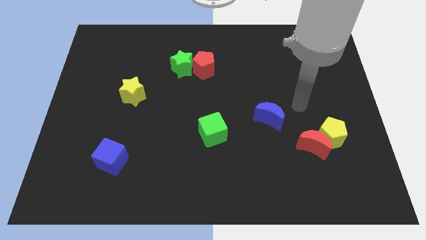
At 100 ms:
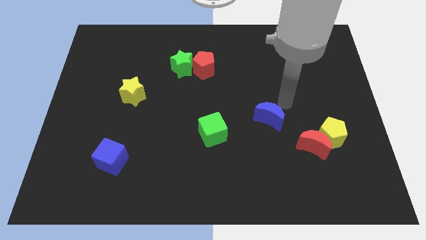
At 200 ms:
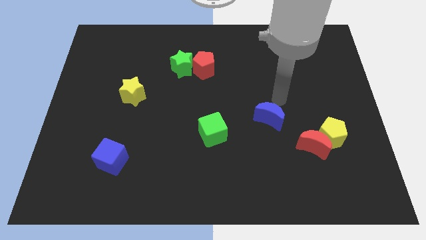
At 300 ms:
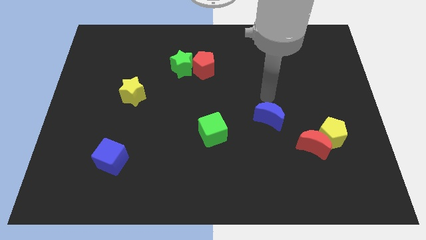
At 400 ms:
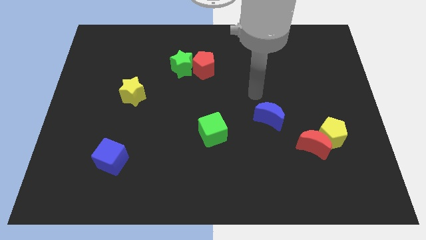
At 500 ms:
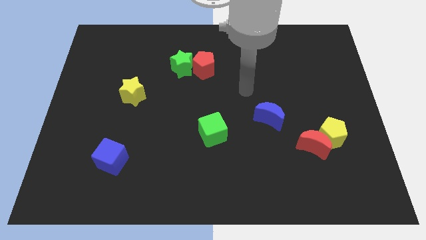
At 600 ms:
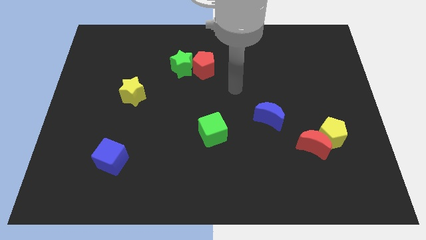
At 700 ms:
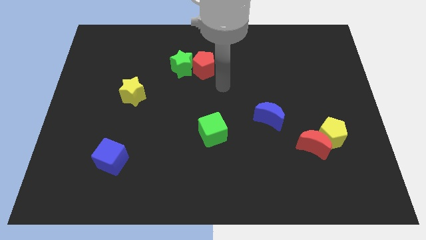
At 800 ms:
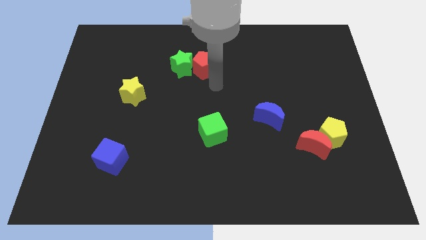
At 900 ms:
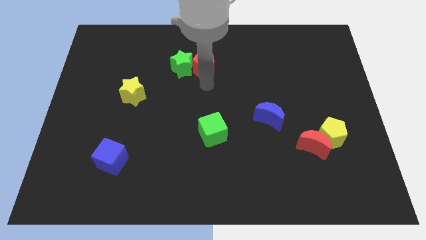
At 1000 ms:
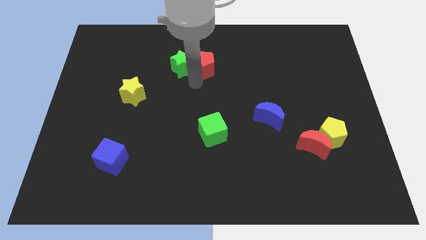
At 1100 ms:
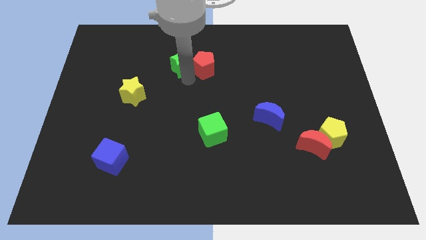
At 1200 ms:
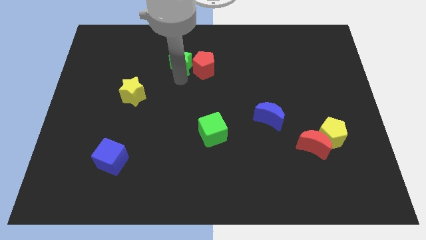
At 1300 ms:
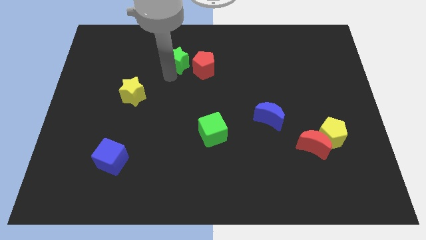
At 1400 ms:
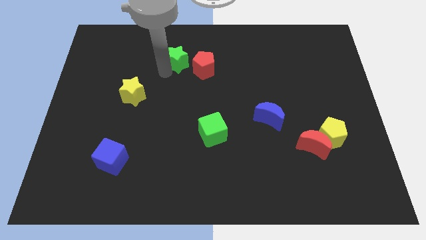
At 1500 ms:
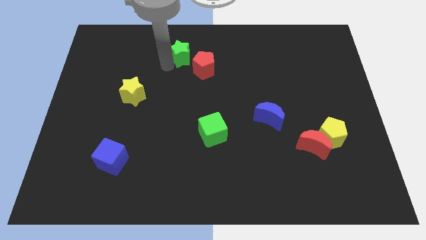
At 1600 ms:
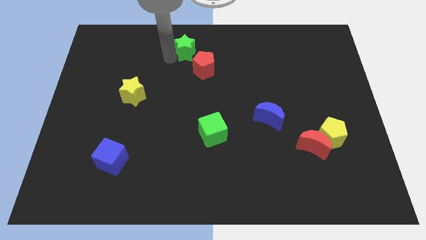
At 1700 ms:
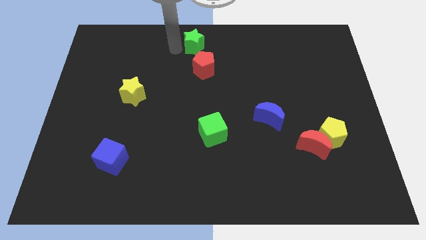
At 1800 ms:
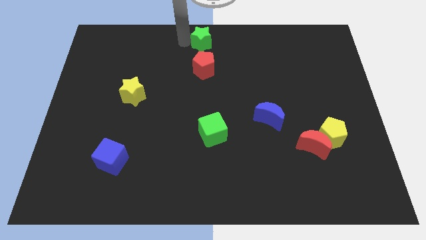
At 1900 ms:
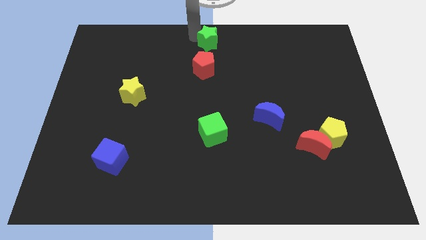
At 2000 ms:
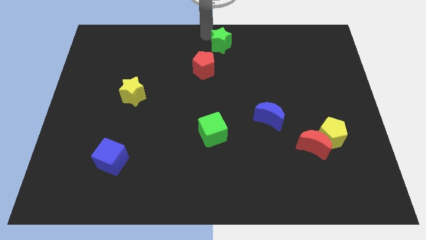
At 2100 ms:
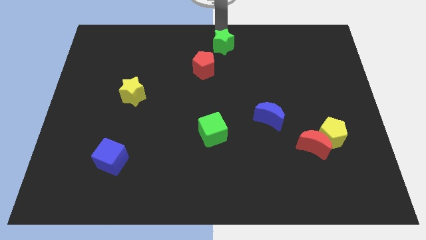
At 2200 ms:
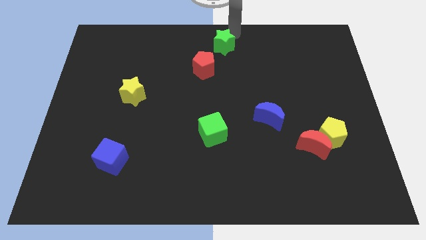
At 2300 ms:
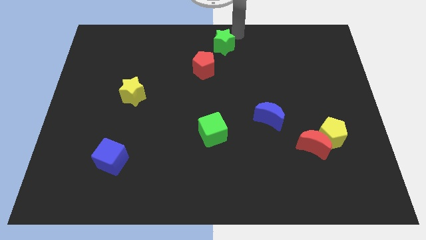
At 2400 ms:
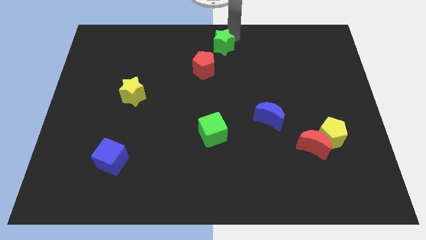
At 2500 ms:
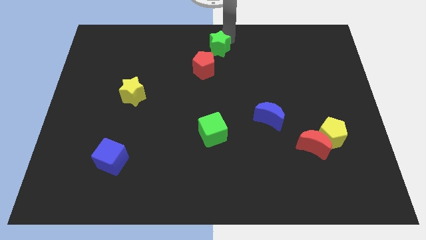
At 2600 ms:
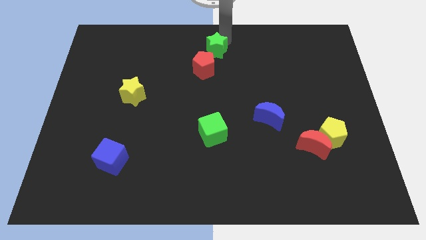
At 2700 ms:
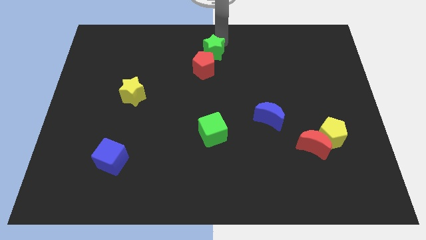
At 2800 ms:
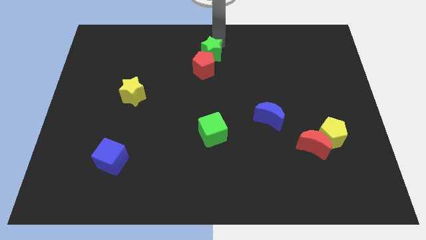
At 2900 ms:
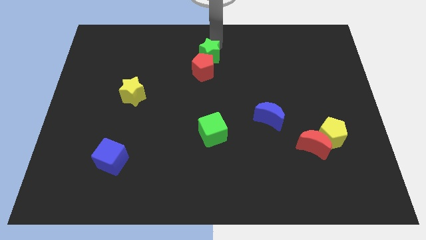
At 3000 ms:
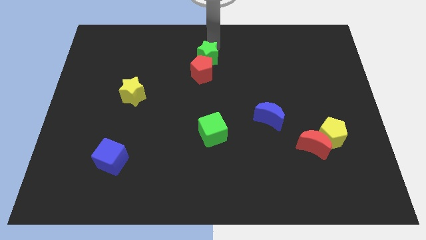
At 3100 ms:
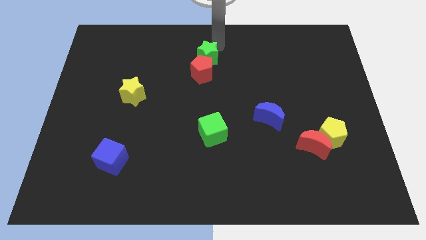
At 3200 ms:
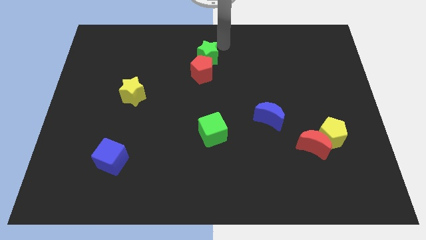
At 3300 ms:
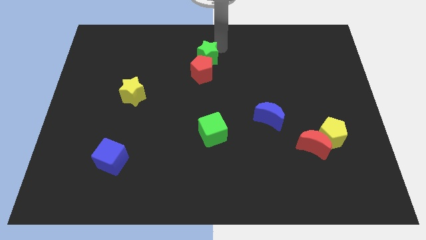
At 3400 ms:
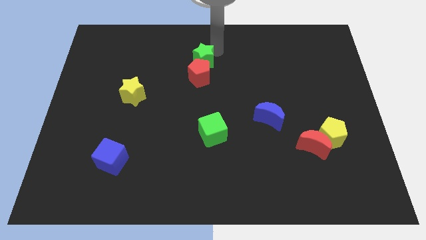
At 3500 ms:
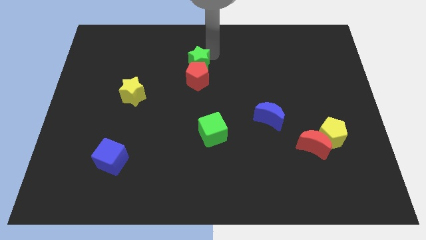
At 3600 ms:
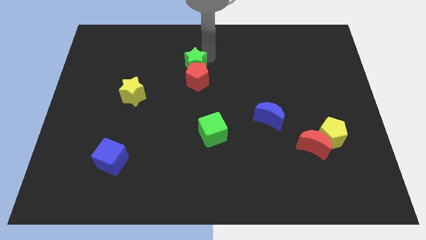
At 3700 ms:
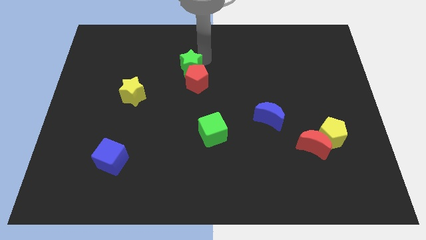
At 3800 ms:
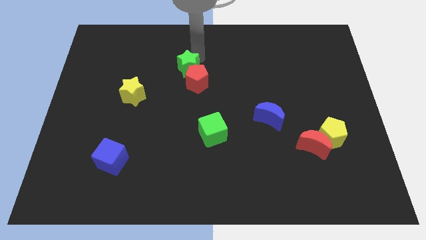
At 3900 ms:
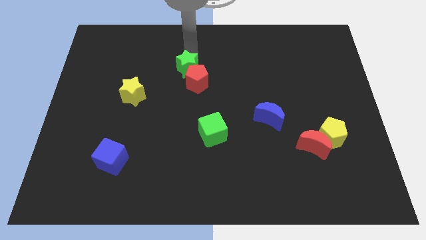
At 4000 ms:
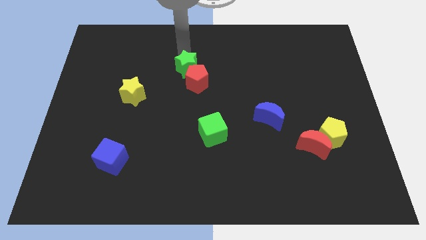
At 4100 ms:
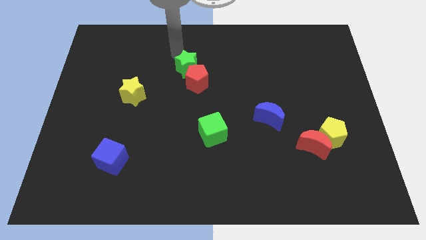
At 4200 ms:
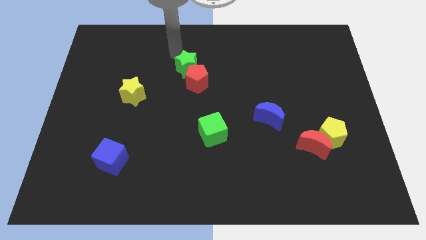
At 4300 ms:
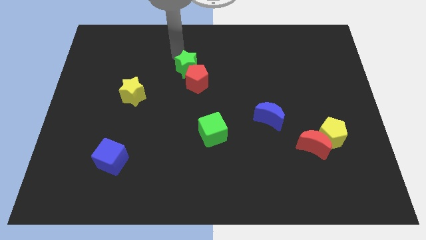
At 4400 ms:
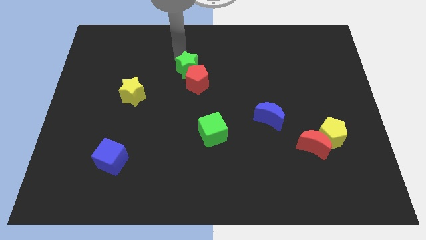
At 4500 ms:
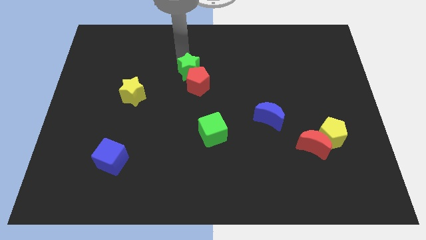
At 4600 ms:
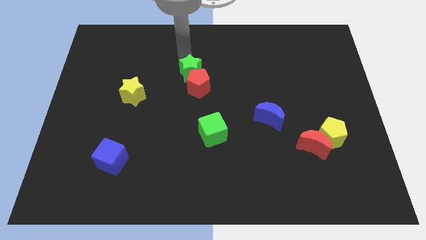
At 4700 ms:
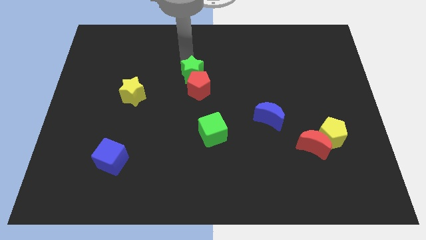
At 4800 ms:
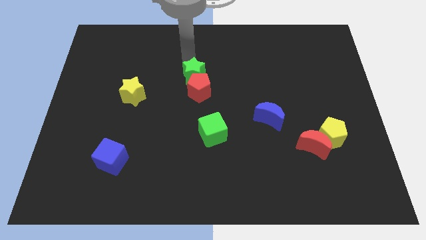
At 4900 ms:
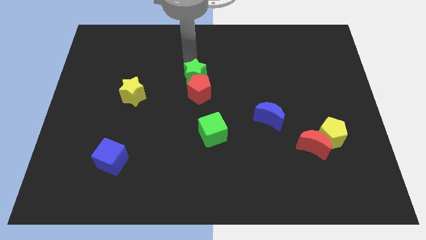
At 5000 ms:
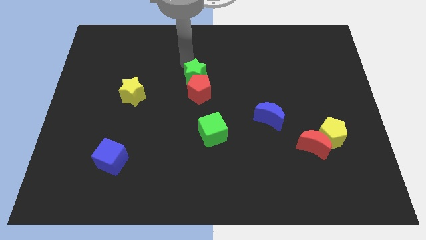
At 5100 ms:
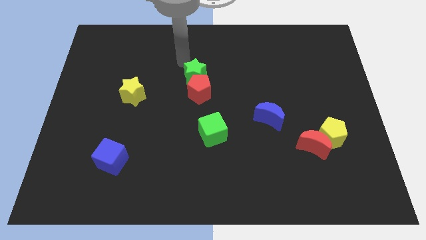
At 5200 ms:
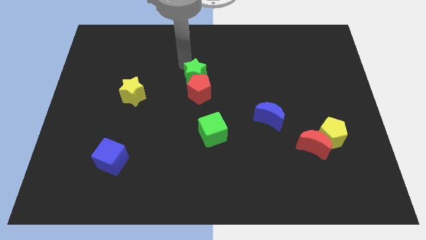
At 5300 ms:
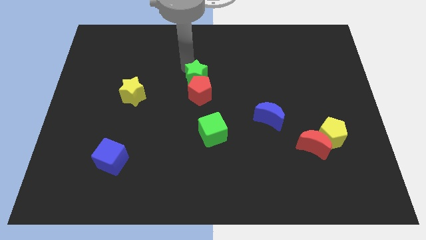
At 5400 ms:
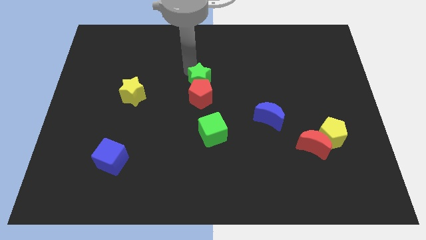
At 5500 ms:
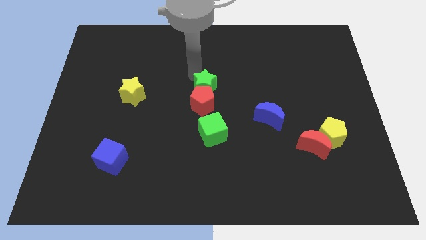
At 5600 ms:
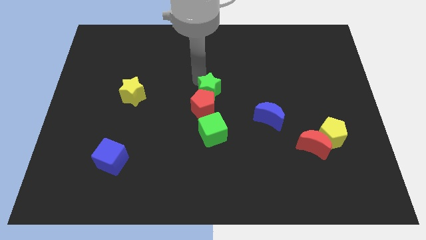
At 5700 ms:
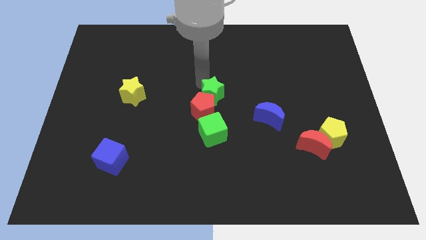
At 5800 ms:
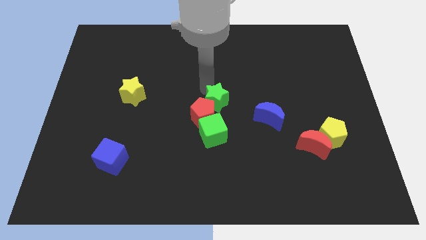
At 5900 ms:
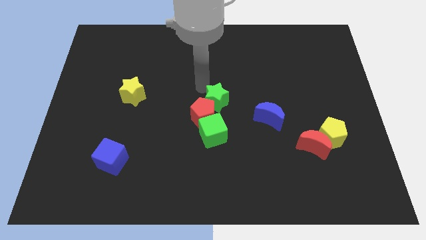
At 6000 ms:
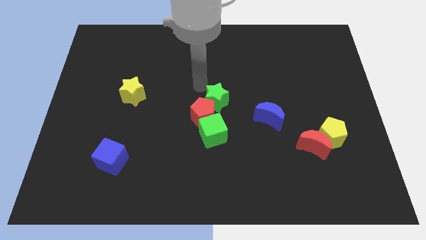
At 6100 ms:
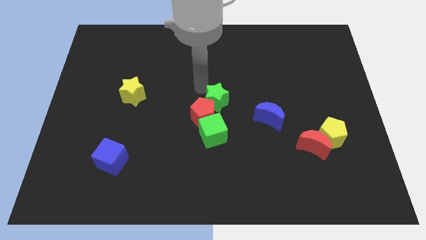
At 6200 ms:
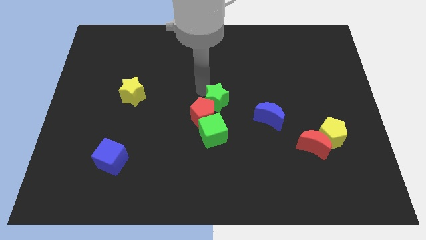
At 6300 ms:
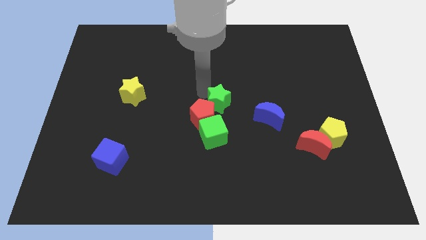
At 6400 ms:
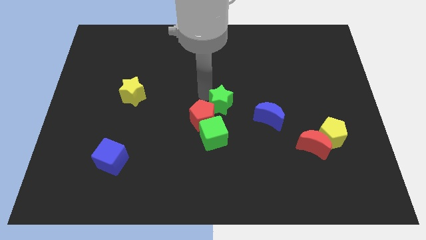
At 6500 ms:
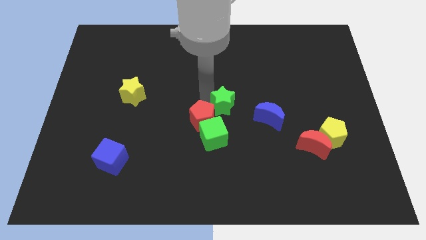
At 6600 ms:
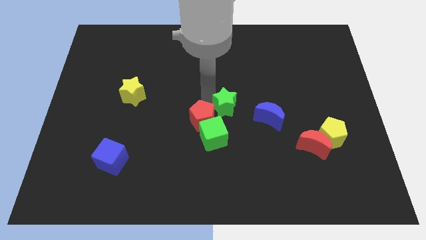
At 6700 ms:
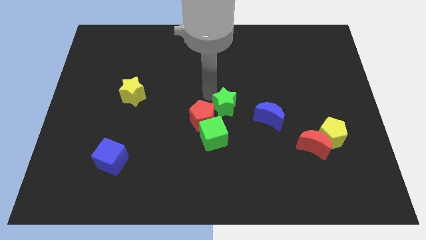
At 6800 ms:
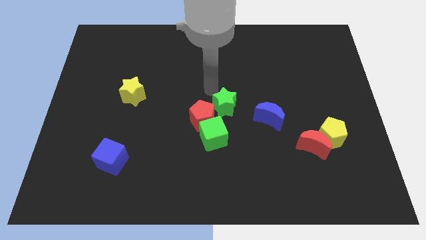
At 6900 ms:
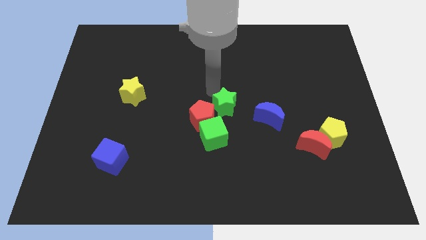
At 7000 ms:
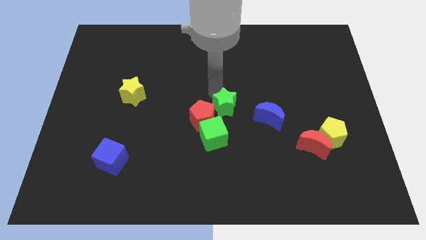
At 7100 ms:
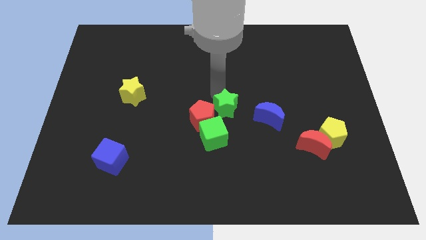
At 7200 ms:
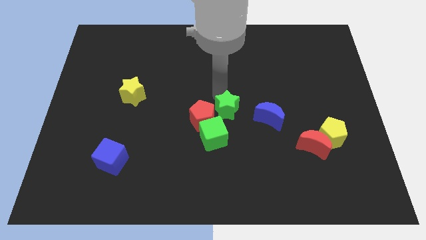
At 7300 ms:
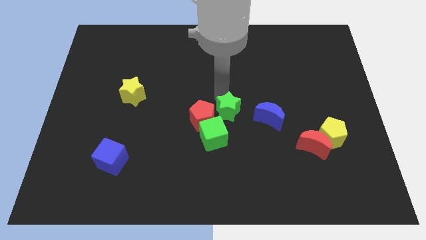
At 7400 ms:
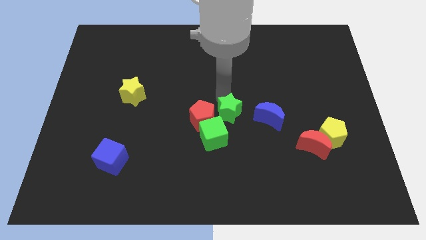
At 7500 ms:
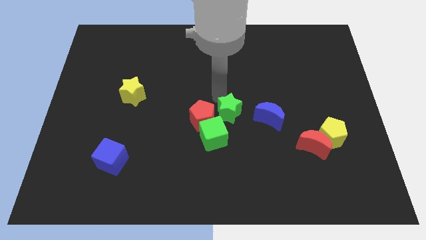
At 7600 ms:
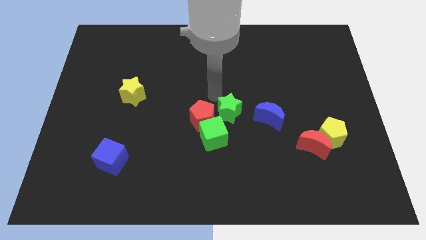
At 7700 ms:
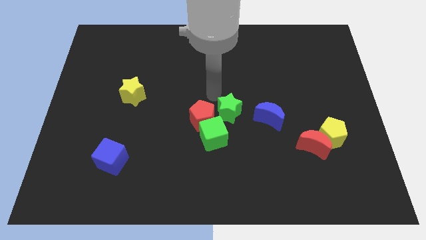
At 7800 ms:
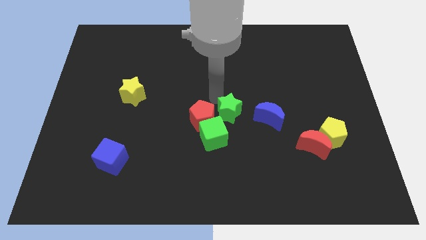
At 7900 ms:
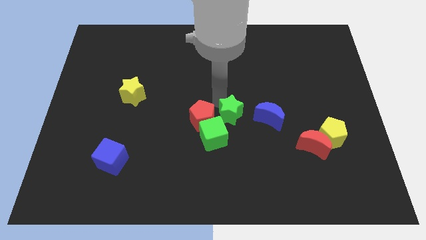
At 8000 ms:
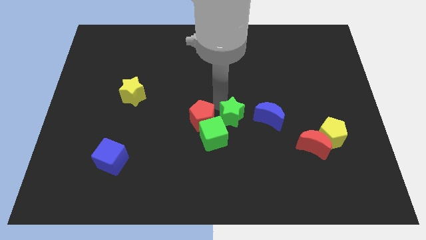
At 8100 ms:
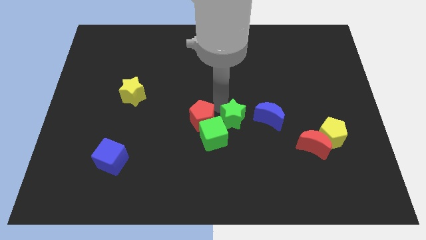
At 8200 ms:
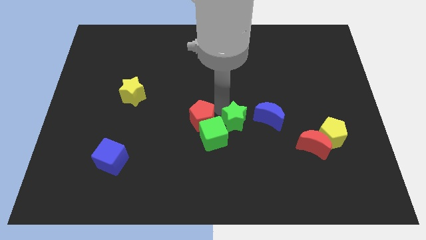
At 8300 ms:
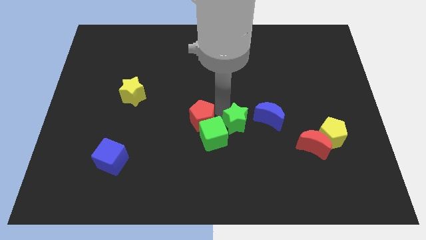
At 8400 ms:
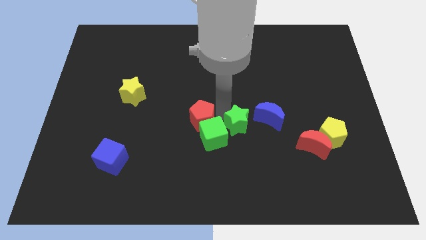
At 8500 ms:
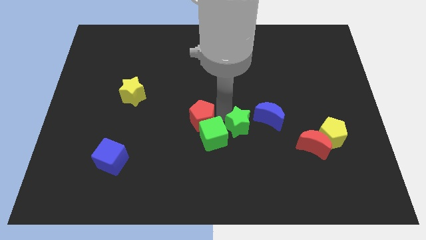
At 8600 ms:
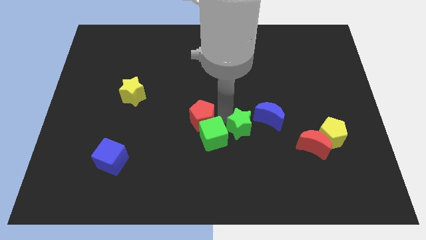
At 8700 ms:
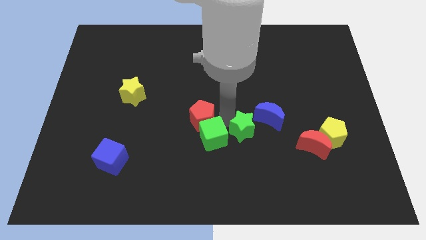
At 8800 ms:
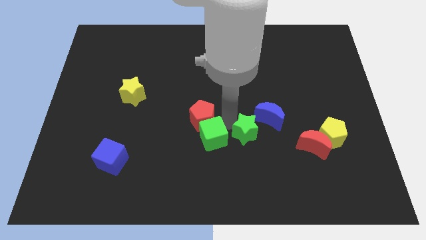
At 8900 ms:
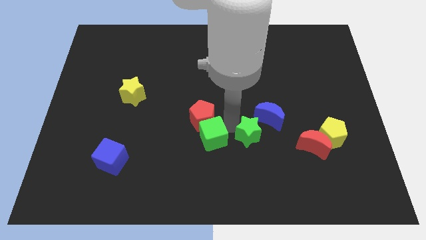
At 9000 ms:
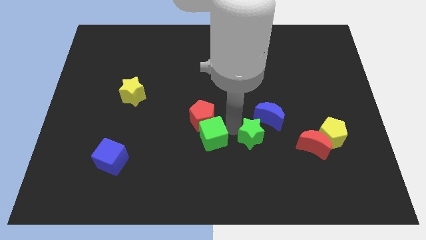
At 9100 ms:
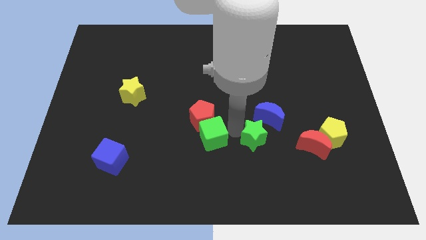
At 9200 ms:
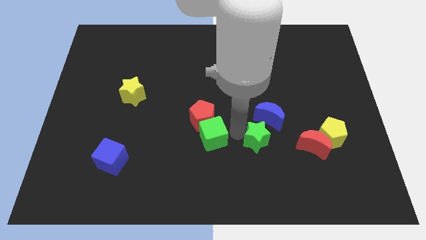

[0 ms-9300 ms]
slide the green star to the left side of the yellow pentagon
